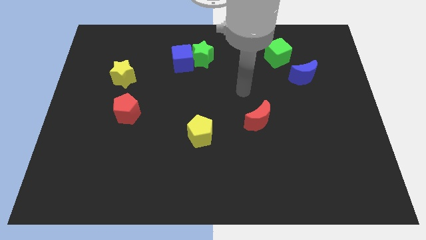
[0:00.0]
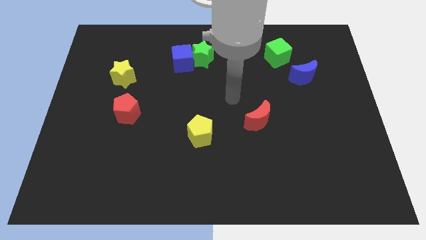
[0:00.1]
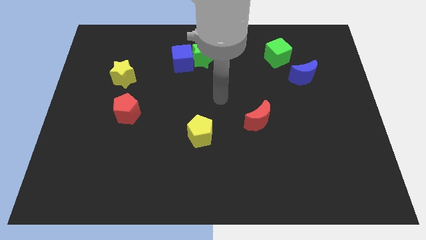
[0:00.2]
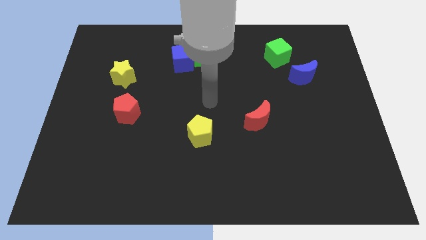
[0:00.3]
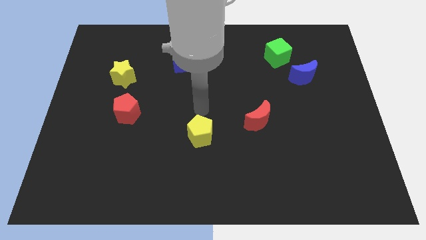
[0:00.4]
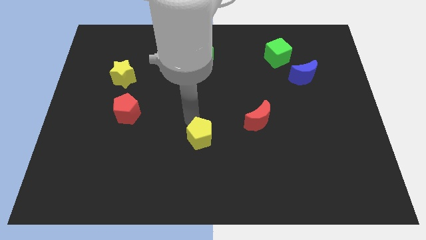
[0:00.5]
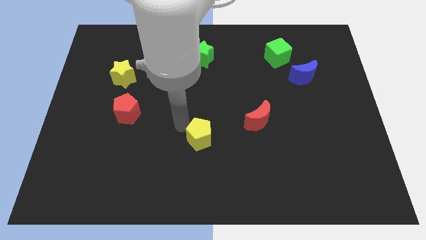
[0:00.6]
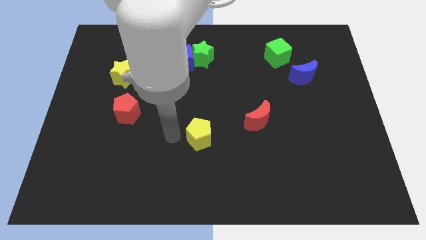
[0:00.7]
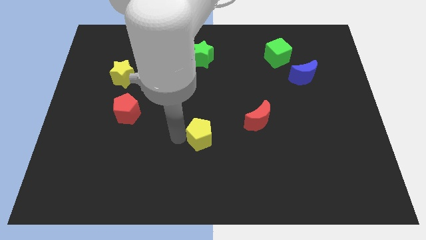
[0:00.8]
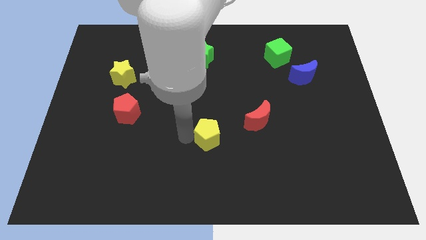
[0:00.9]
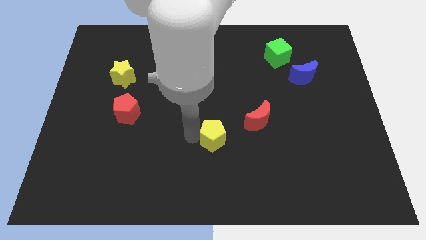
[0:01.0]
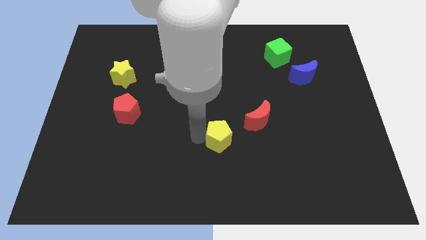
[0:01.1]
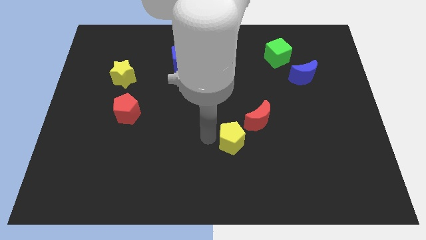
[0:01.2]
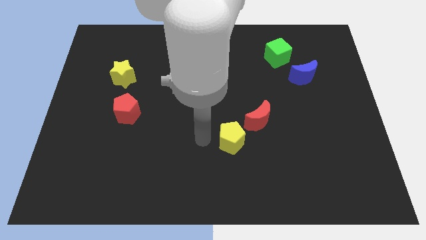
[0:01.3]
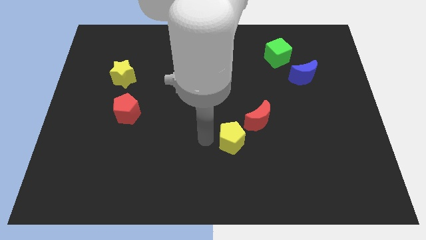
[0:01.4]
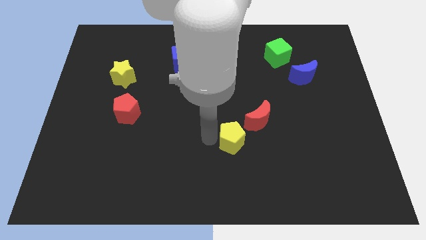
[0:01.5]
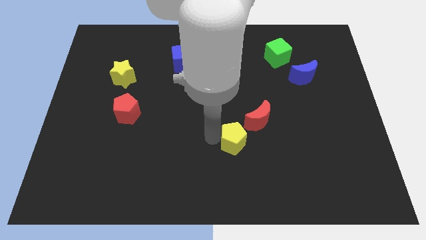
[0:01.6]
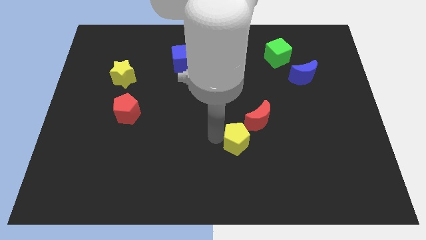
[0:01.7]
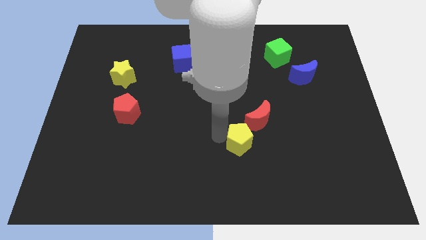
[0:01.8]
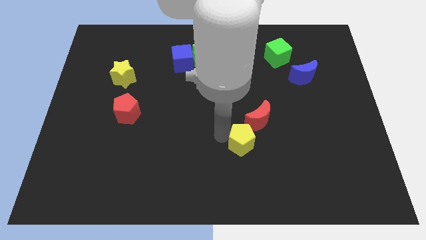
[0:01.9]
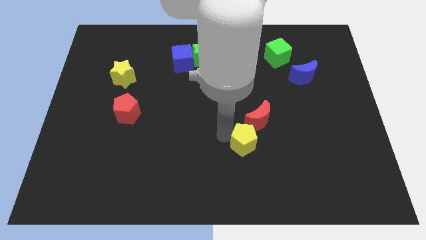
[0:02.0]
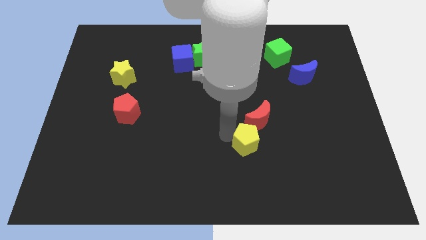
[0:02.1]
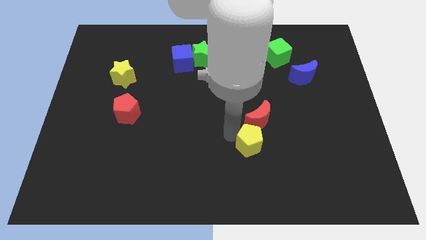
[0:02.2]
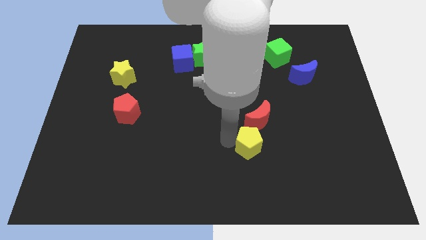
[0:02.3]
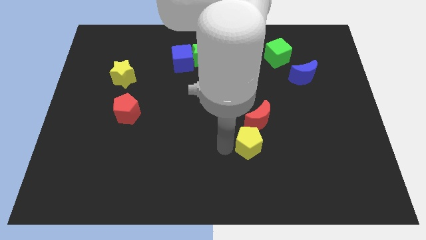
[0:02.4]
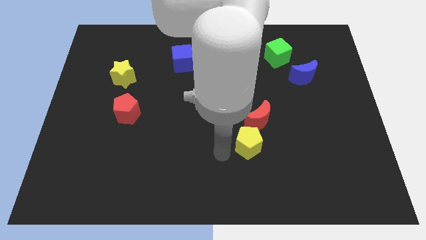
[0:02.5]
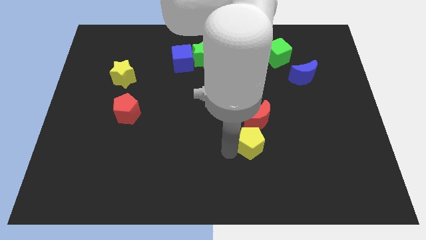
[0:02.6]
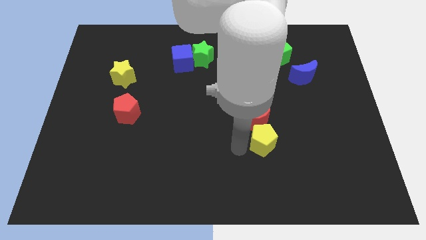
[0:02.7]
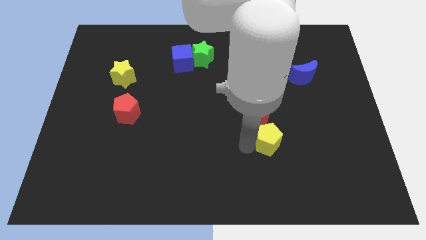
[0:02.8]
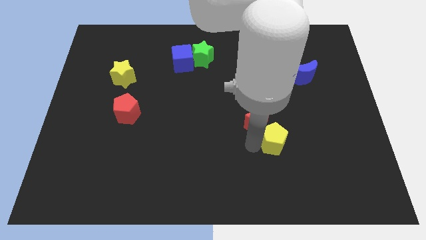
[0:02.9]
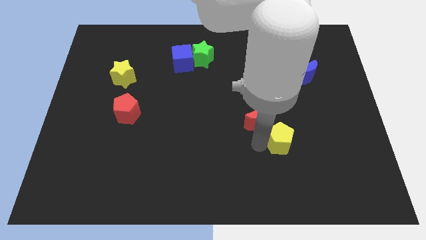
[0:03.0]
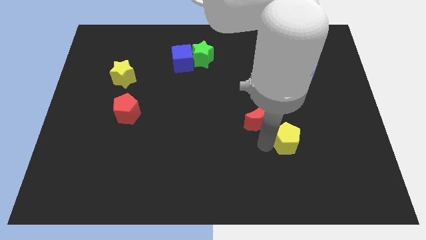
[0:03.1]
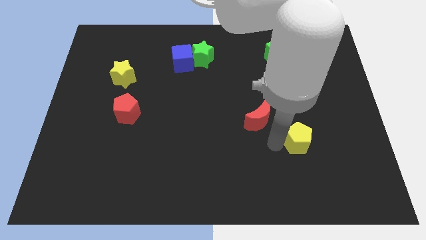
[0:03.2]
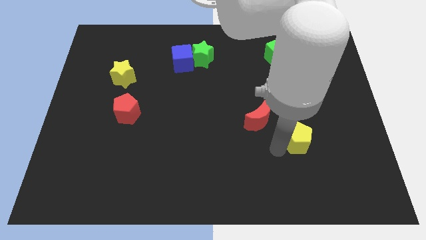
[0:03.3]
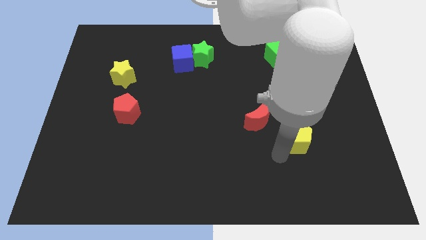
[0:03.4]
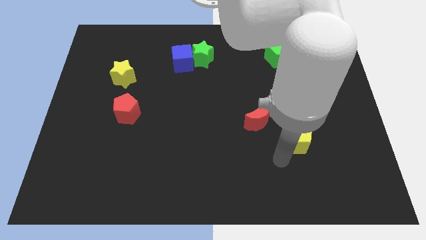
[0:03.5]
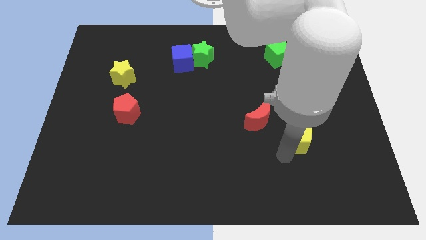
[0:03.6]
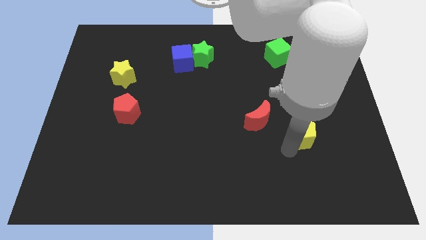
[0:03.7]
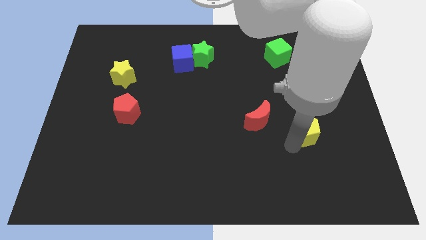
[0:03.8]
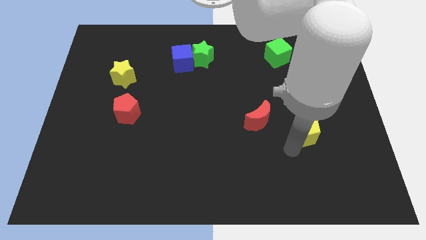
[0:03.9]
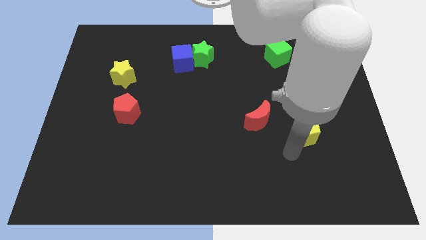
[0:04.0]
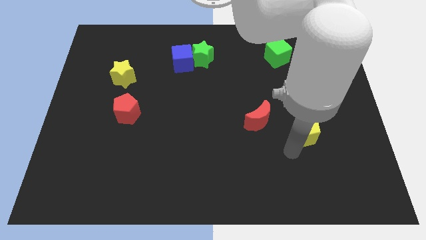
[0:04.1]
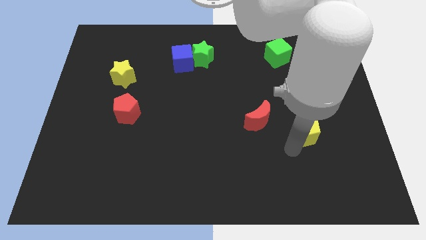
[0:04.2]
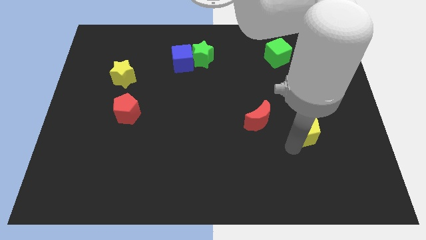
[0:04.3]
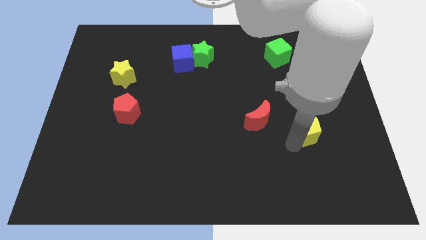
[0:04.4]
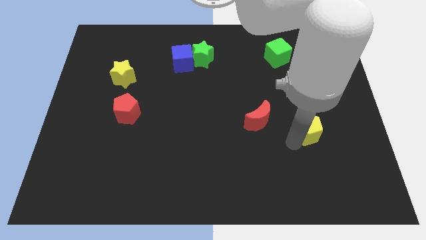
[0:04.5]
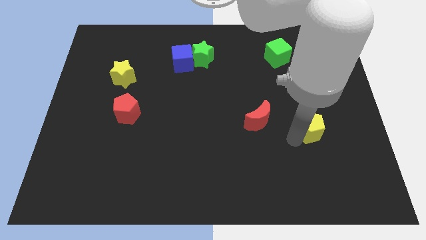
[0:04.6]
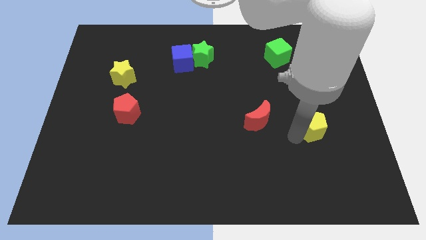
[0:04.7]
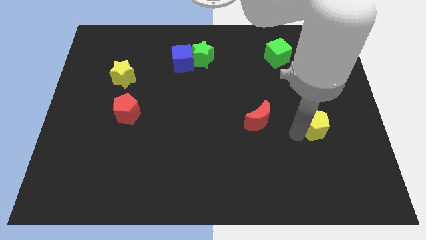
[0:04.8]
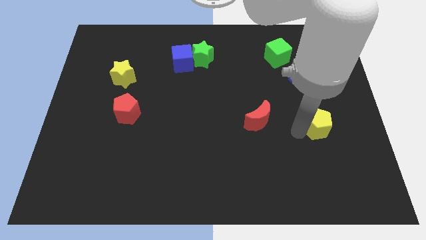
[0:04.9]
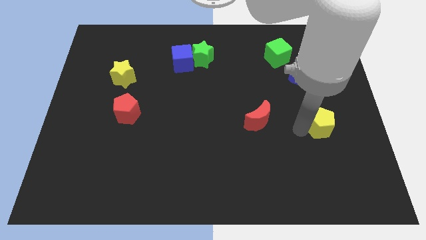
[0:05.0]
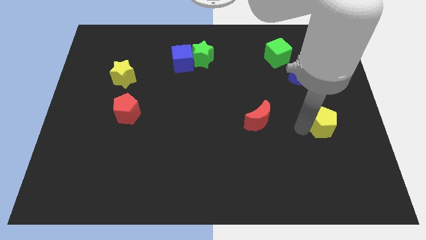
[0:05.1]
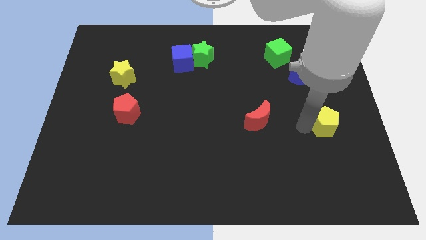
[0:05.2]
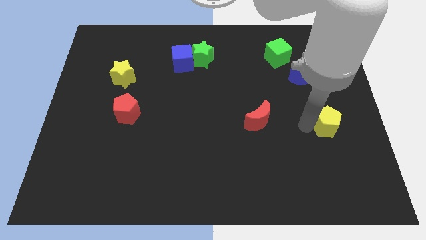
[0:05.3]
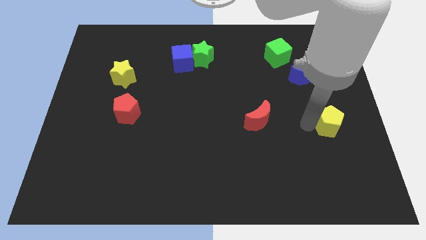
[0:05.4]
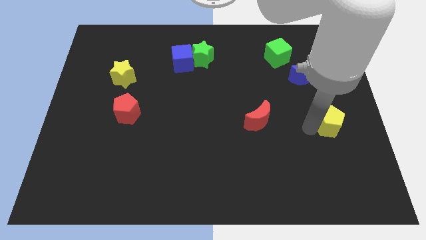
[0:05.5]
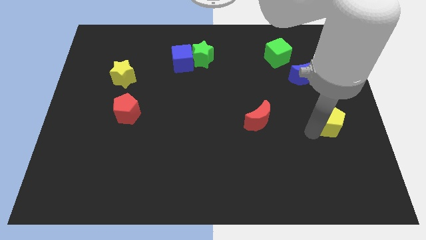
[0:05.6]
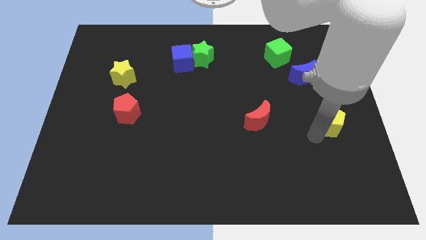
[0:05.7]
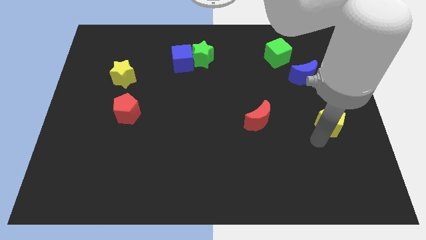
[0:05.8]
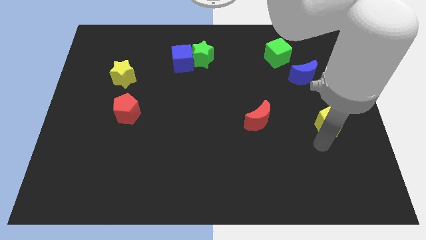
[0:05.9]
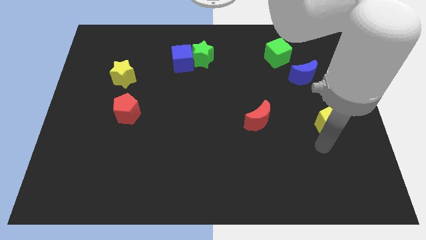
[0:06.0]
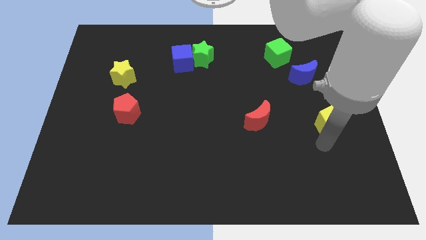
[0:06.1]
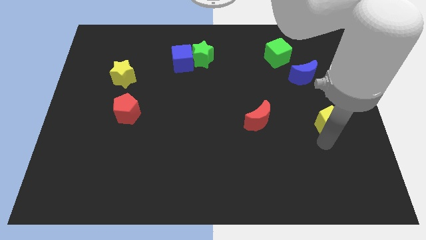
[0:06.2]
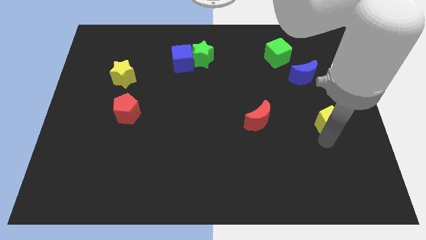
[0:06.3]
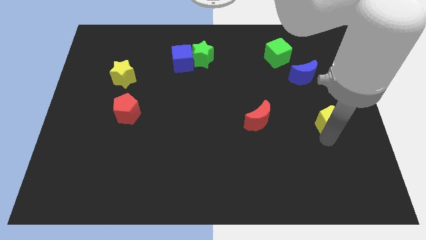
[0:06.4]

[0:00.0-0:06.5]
push the yellow pentagon to the right side

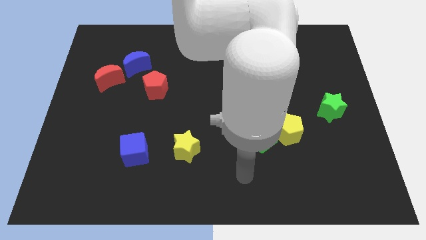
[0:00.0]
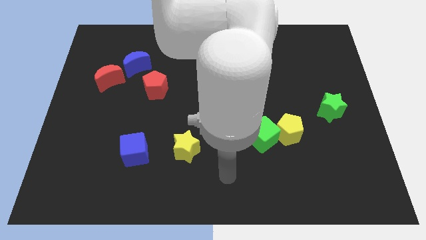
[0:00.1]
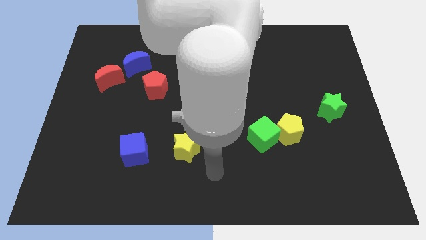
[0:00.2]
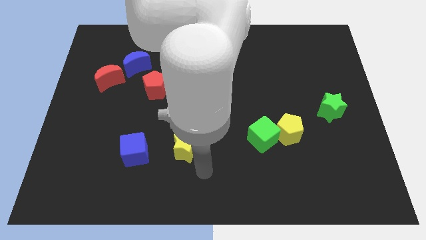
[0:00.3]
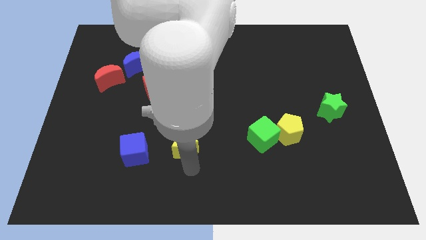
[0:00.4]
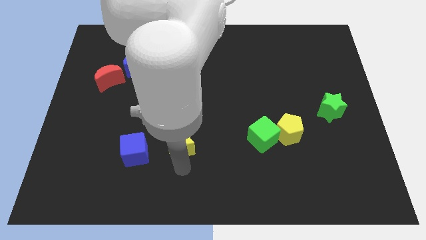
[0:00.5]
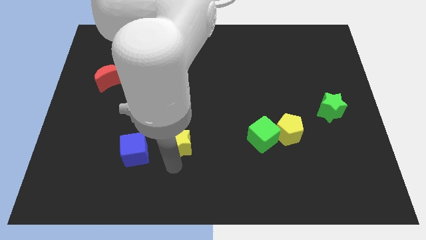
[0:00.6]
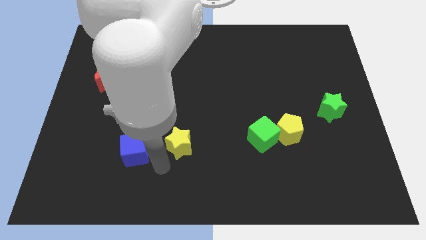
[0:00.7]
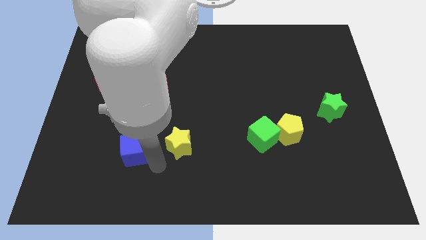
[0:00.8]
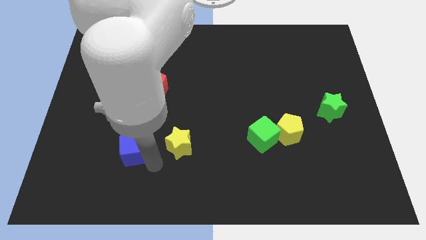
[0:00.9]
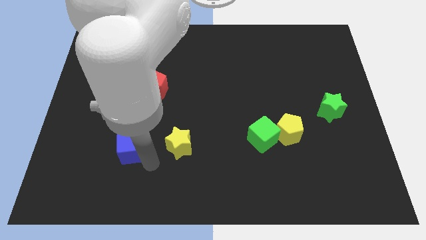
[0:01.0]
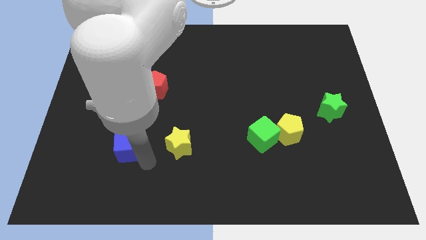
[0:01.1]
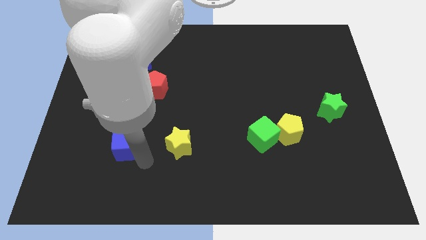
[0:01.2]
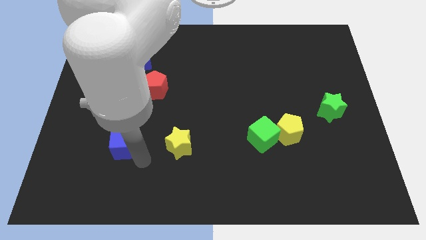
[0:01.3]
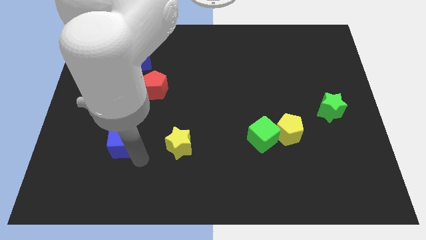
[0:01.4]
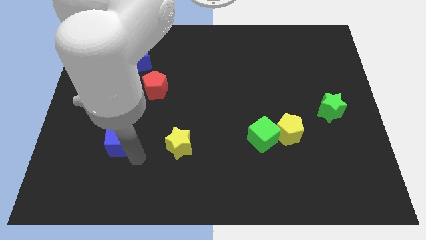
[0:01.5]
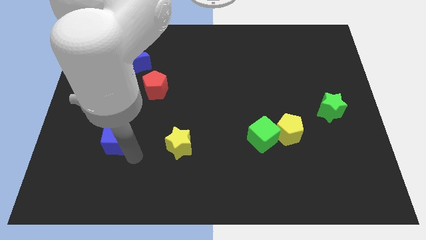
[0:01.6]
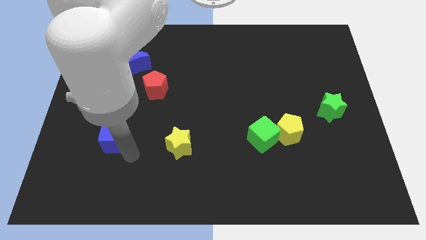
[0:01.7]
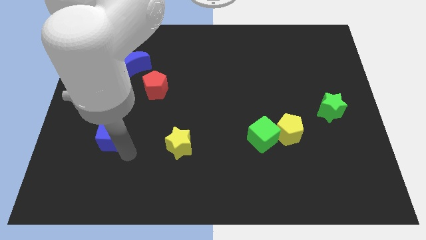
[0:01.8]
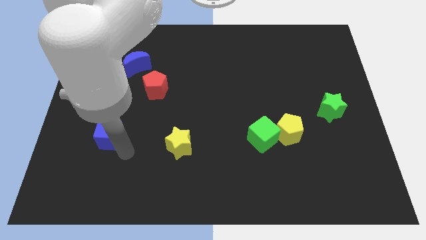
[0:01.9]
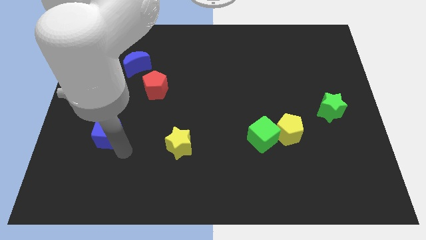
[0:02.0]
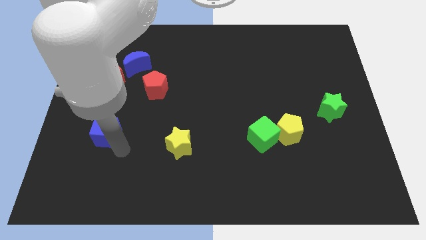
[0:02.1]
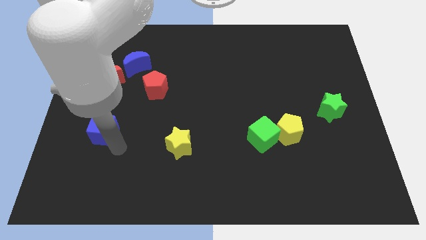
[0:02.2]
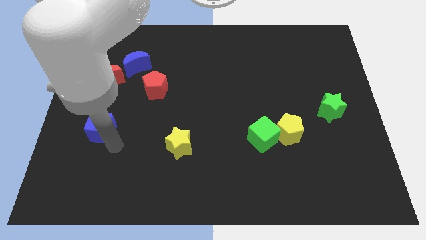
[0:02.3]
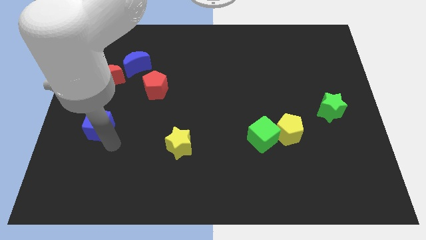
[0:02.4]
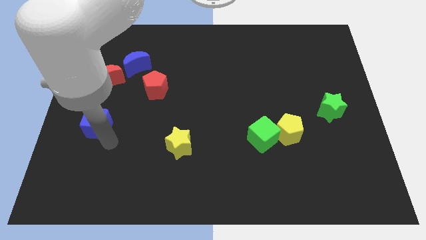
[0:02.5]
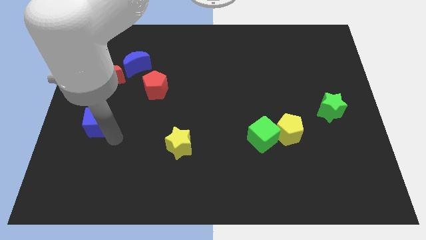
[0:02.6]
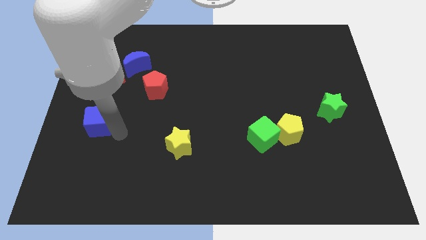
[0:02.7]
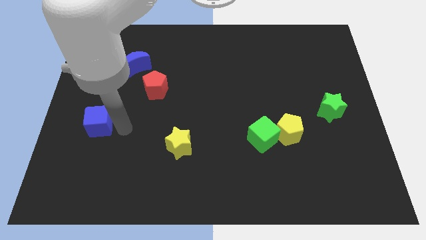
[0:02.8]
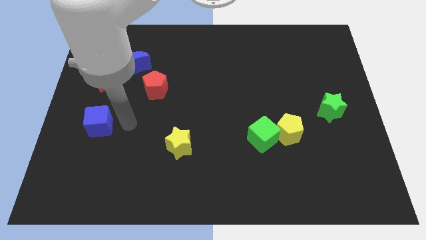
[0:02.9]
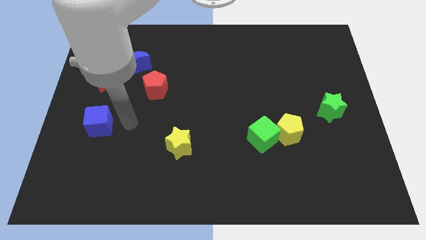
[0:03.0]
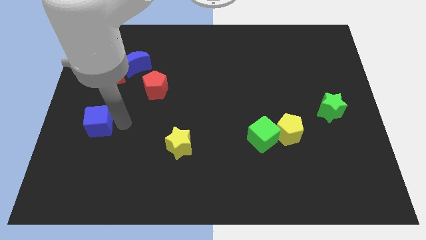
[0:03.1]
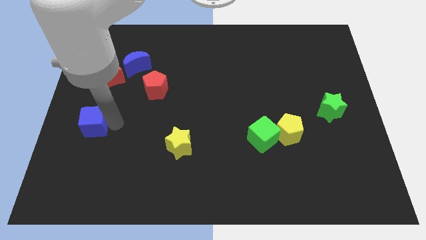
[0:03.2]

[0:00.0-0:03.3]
push the blue cube to the left side of the board
